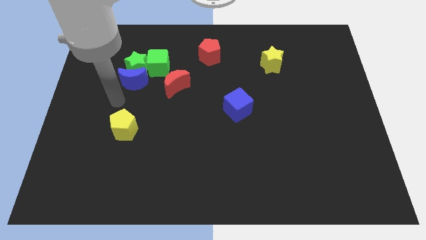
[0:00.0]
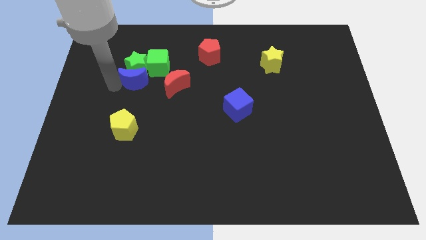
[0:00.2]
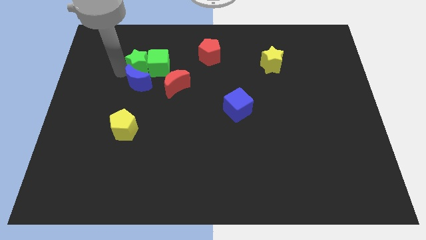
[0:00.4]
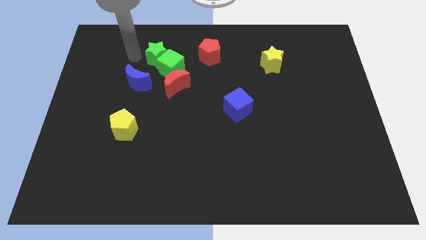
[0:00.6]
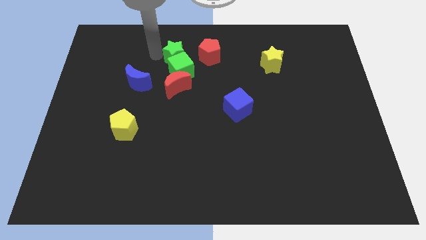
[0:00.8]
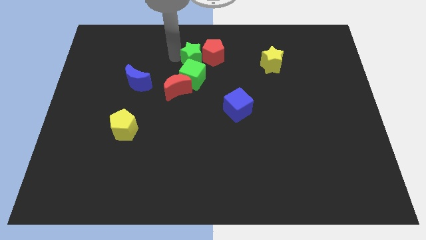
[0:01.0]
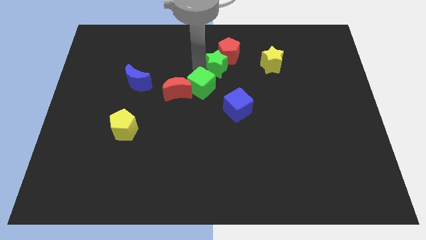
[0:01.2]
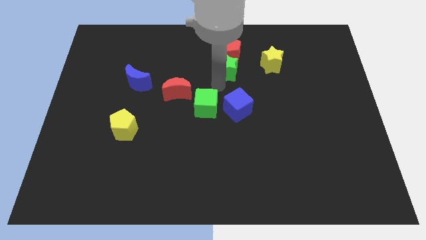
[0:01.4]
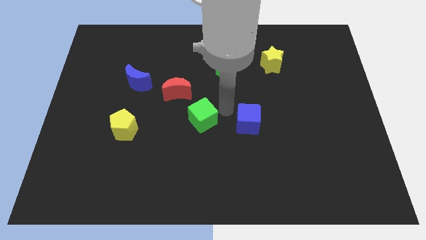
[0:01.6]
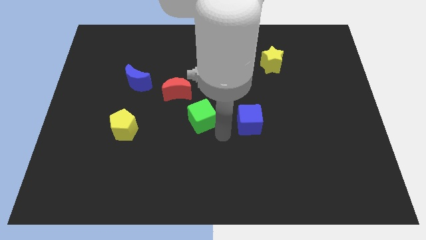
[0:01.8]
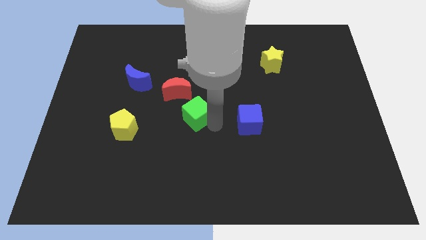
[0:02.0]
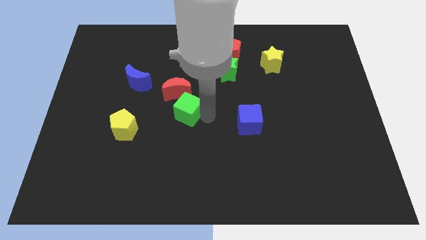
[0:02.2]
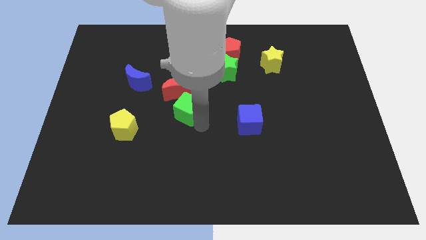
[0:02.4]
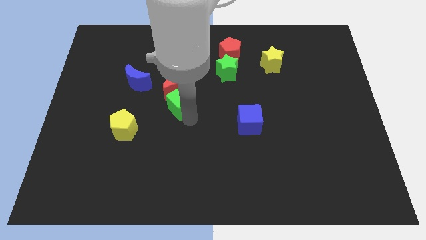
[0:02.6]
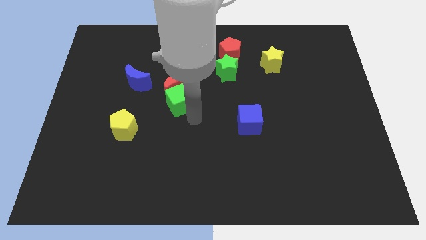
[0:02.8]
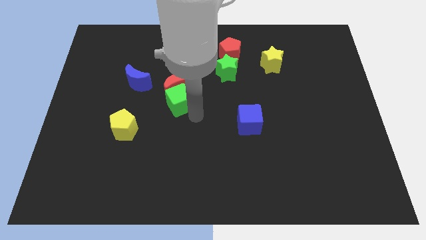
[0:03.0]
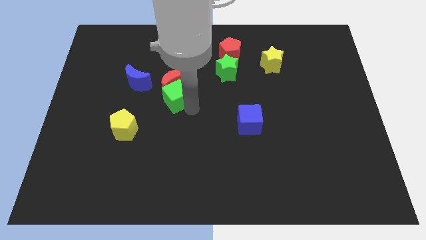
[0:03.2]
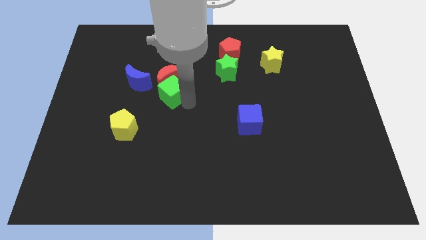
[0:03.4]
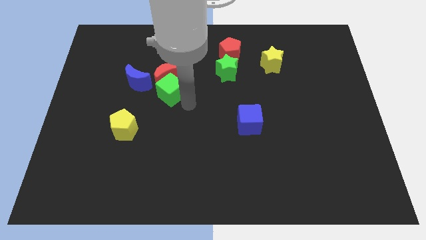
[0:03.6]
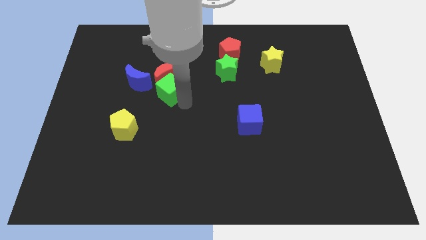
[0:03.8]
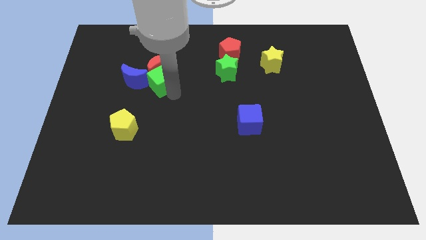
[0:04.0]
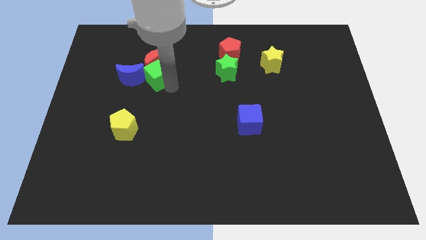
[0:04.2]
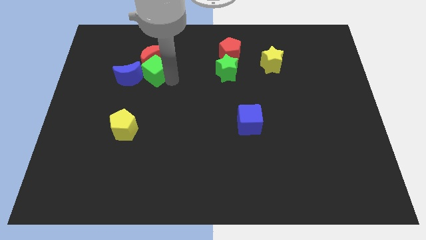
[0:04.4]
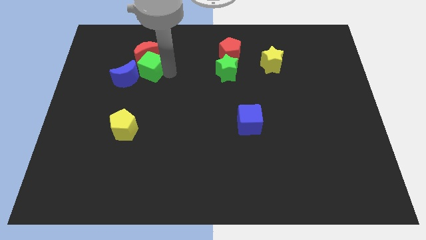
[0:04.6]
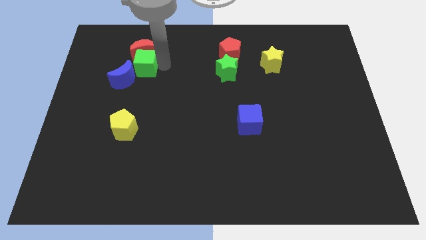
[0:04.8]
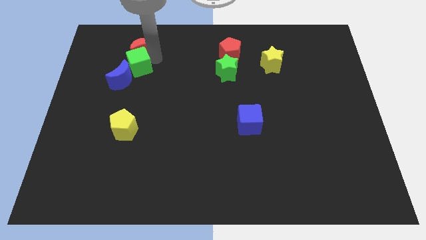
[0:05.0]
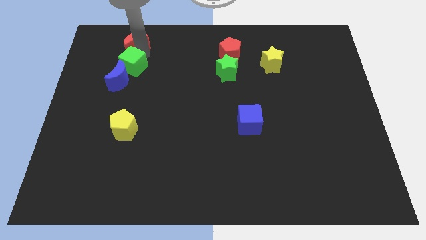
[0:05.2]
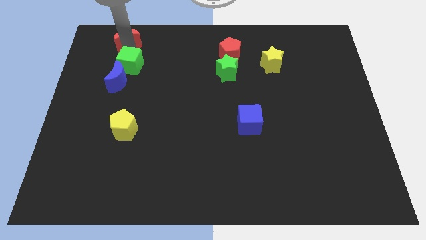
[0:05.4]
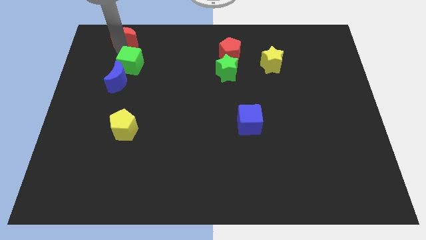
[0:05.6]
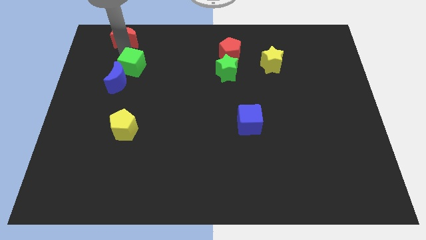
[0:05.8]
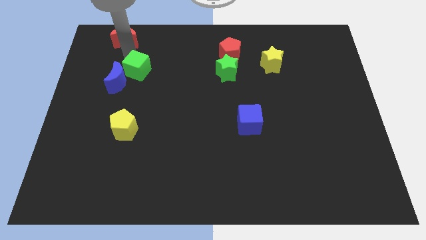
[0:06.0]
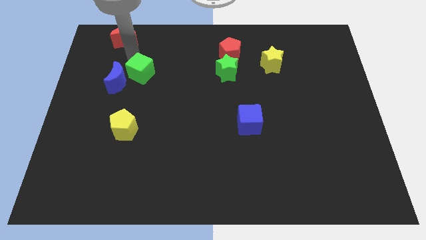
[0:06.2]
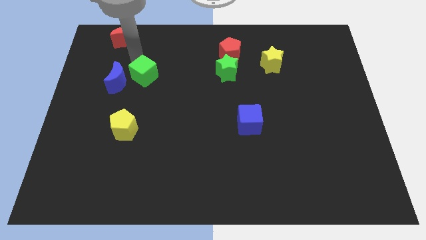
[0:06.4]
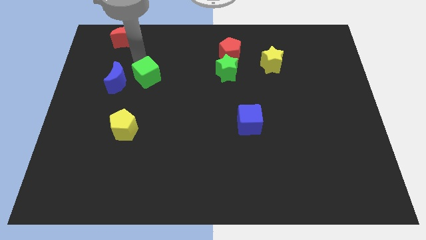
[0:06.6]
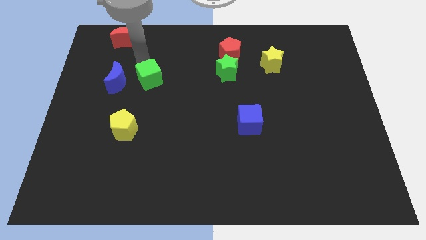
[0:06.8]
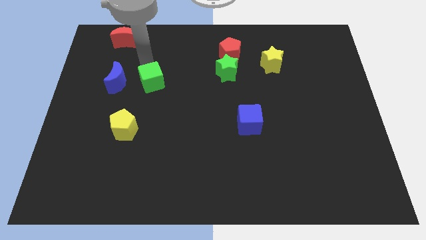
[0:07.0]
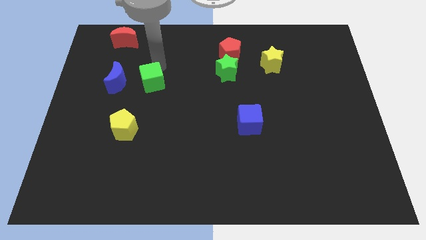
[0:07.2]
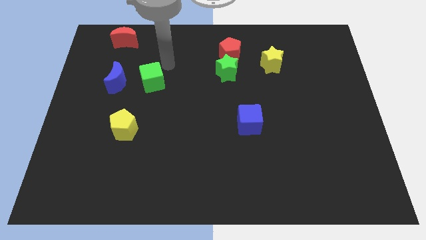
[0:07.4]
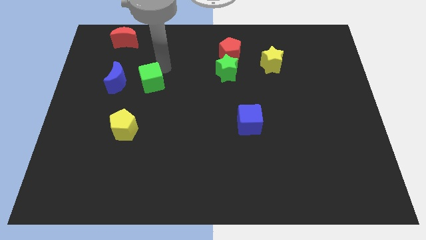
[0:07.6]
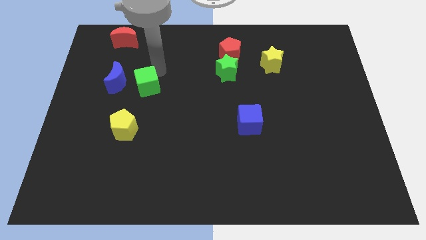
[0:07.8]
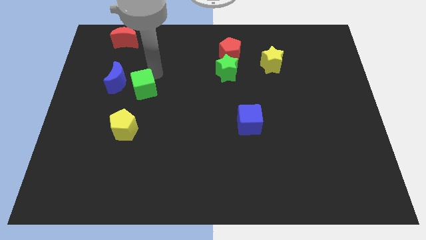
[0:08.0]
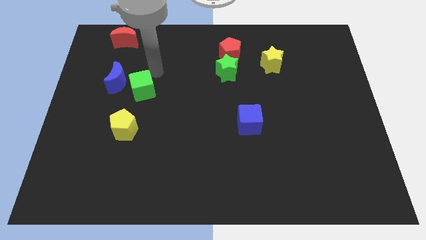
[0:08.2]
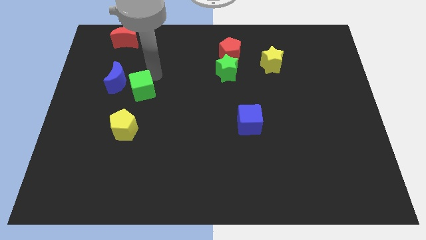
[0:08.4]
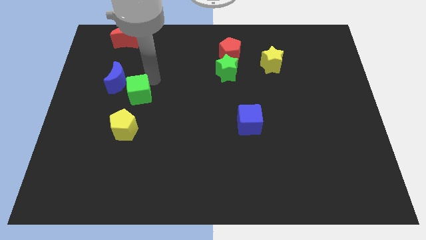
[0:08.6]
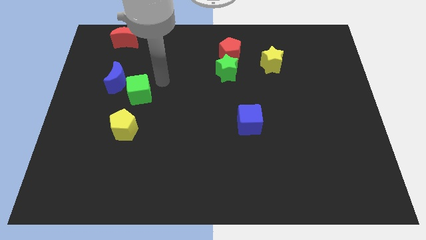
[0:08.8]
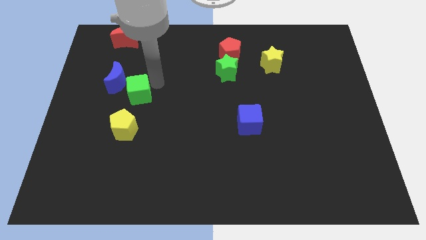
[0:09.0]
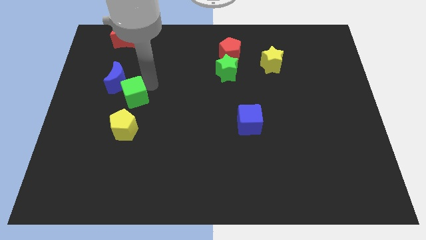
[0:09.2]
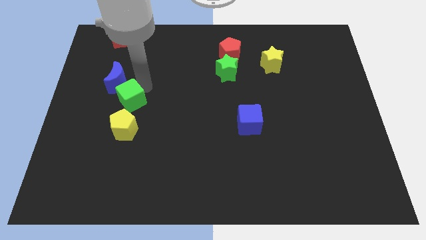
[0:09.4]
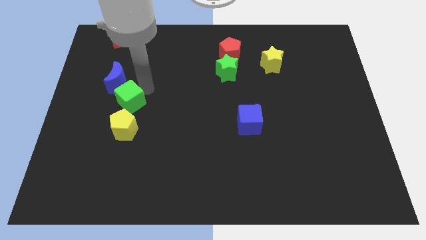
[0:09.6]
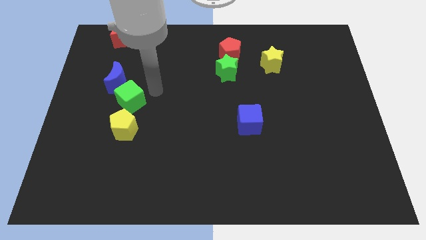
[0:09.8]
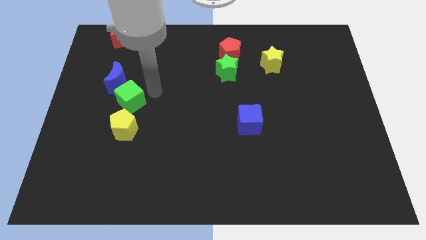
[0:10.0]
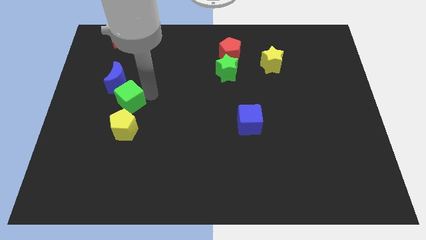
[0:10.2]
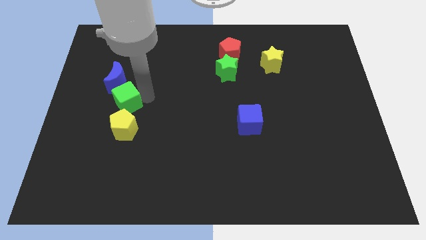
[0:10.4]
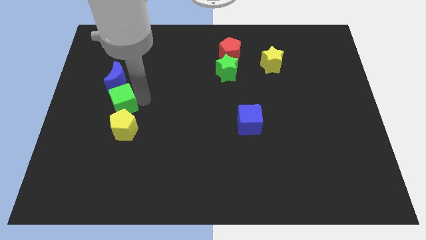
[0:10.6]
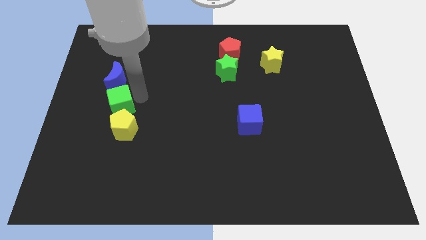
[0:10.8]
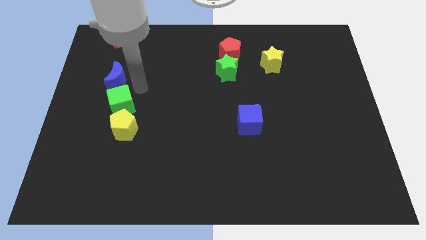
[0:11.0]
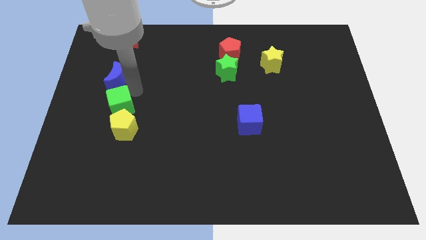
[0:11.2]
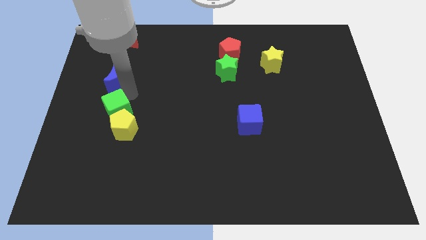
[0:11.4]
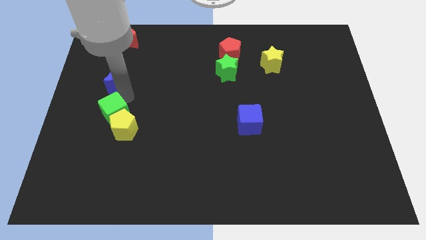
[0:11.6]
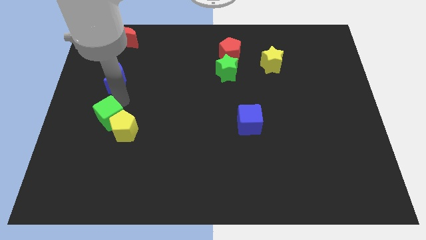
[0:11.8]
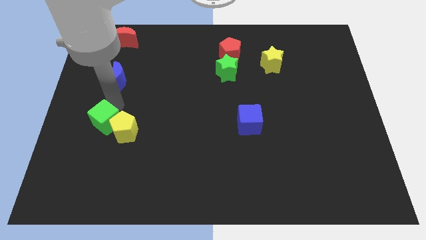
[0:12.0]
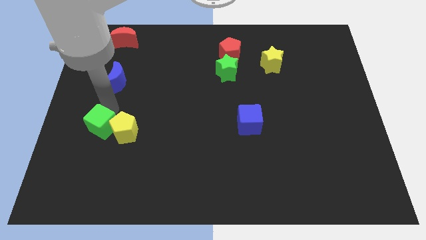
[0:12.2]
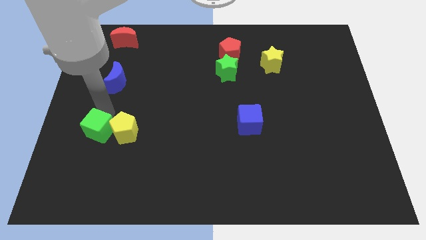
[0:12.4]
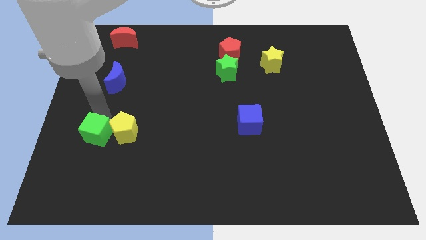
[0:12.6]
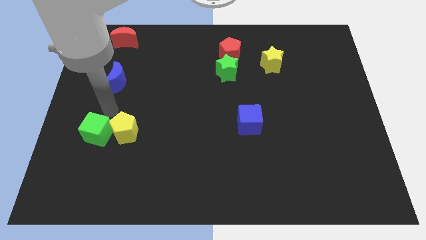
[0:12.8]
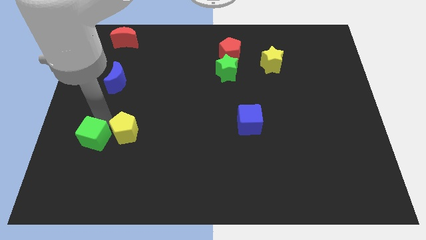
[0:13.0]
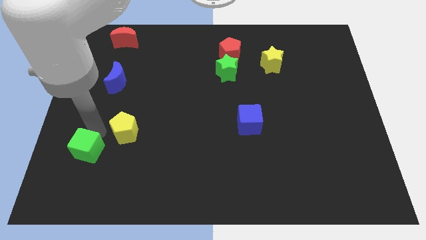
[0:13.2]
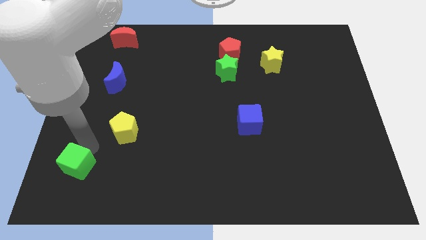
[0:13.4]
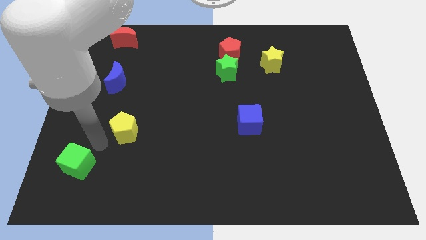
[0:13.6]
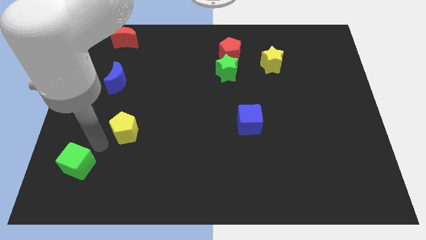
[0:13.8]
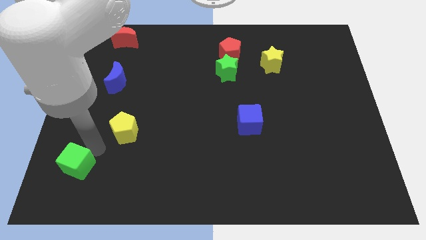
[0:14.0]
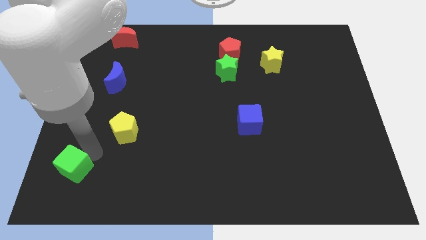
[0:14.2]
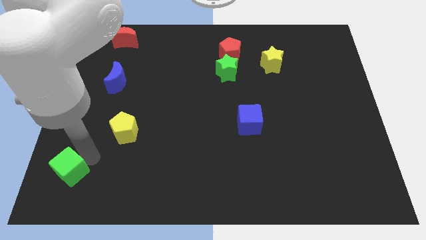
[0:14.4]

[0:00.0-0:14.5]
slide the green cube to the bottom left corner
